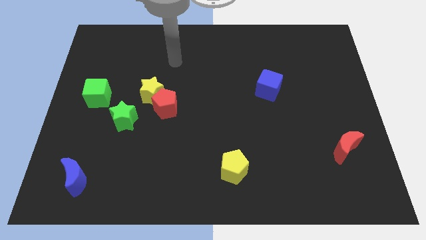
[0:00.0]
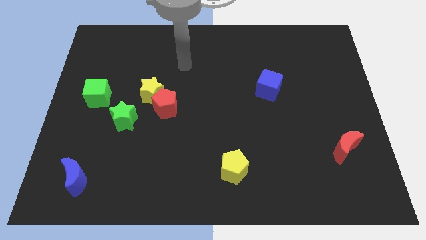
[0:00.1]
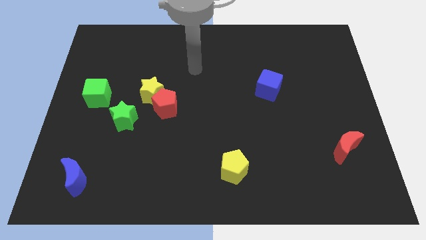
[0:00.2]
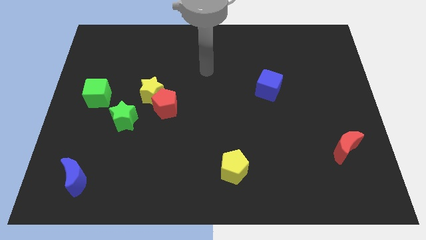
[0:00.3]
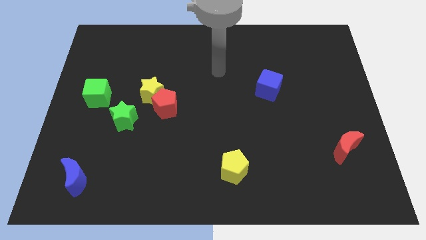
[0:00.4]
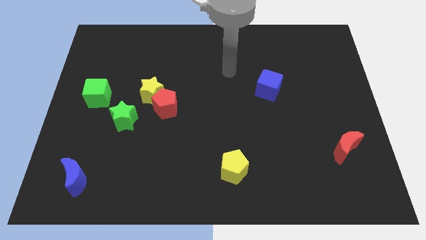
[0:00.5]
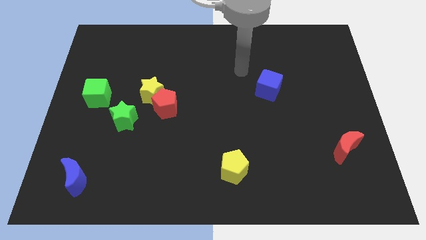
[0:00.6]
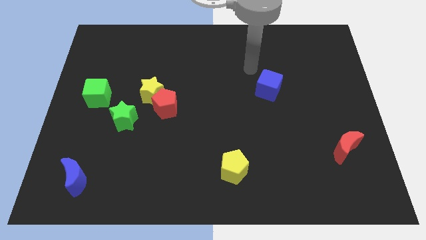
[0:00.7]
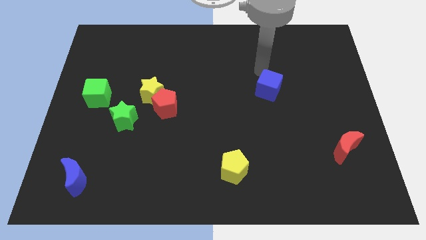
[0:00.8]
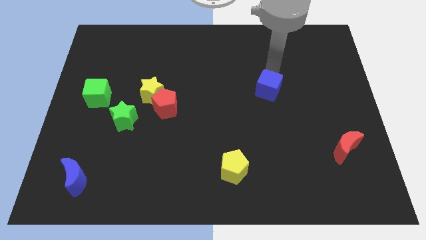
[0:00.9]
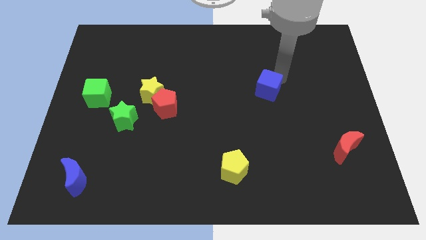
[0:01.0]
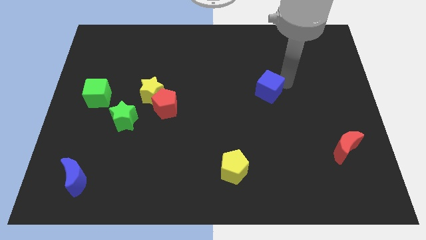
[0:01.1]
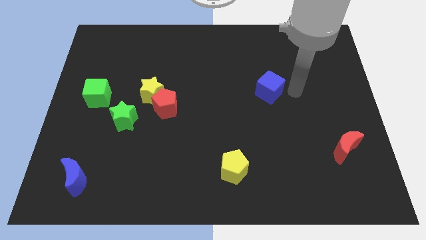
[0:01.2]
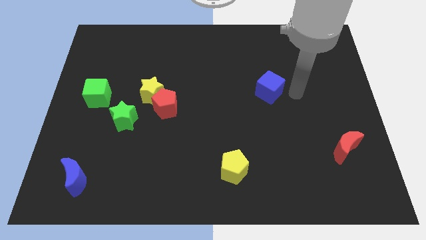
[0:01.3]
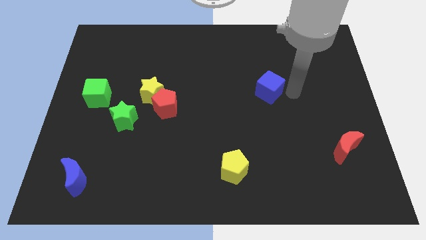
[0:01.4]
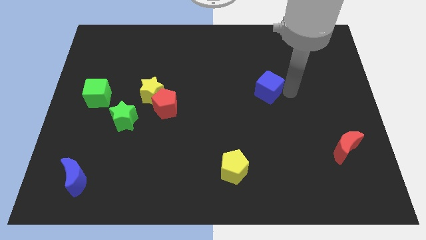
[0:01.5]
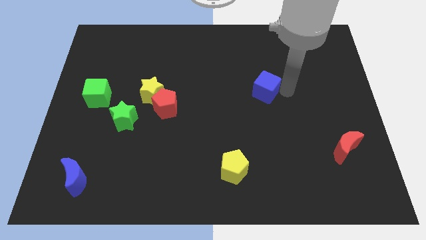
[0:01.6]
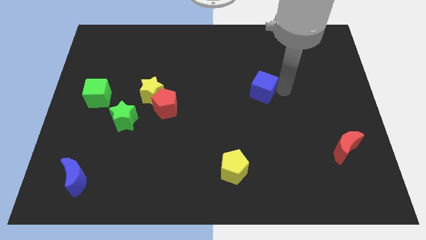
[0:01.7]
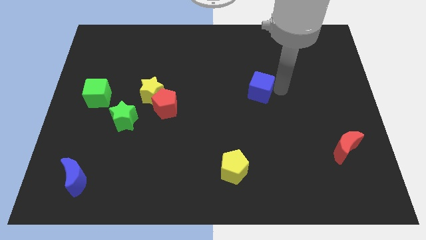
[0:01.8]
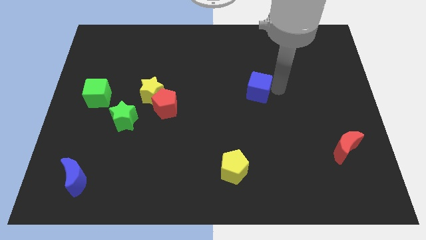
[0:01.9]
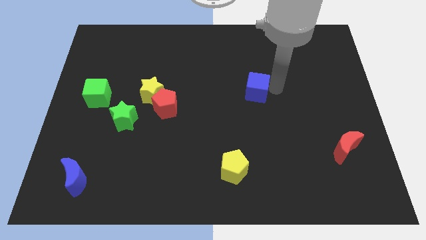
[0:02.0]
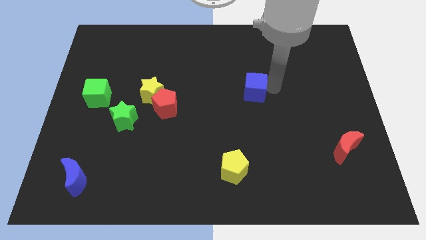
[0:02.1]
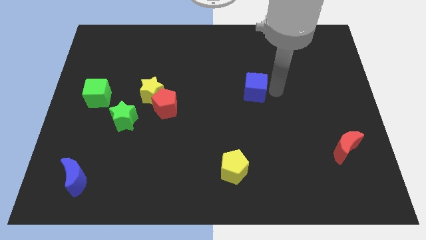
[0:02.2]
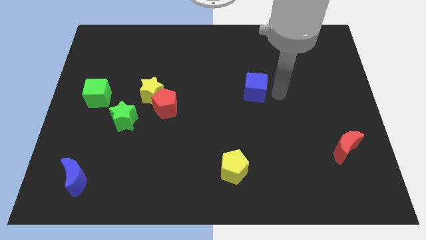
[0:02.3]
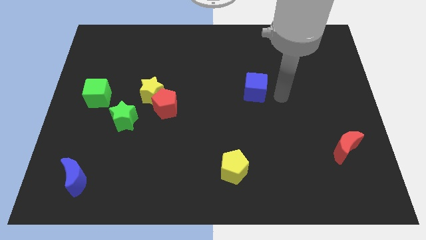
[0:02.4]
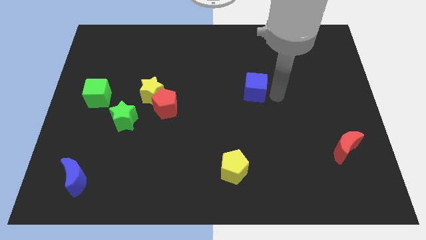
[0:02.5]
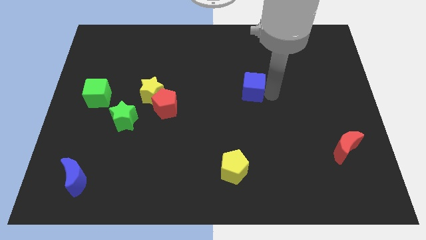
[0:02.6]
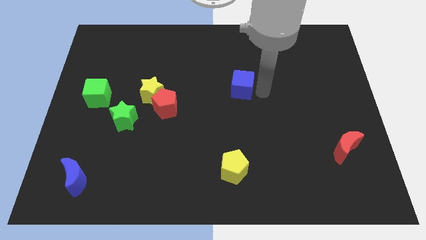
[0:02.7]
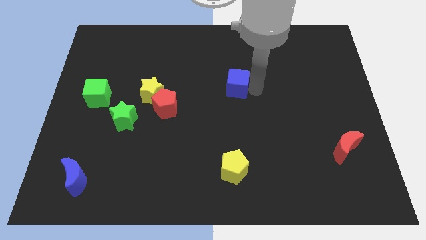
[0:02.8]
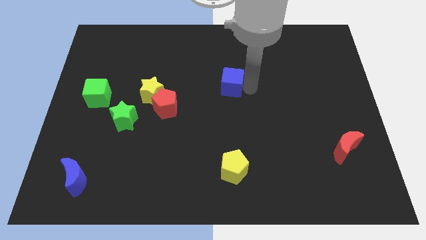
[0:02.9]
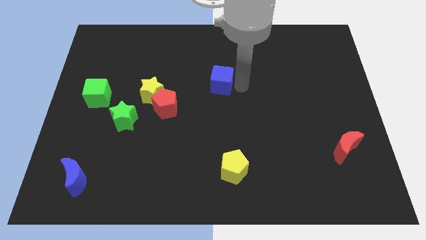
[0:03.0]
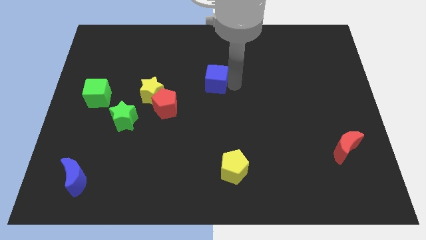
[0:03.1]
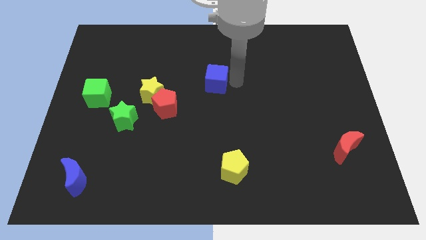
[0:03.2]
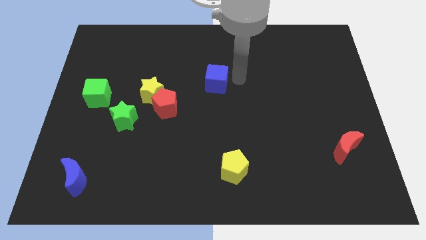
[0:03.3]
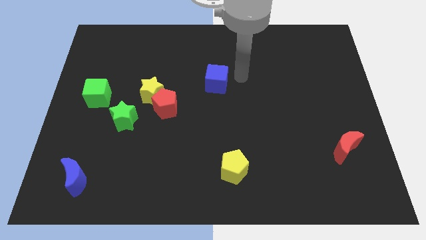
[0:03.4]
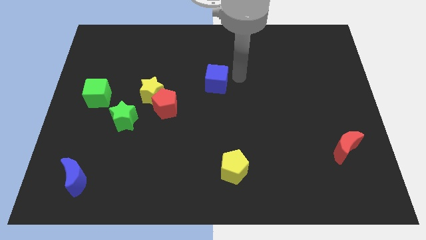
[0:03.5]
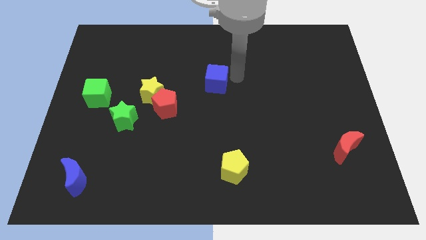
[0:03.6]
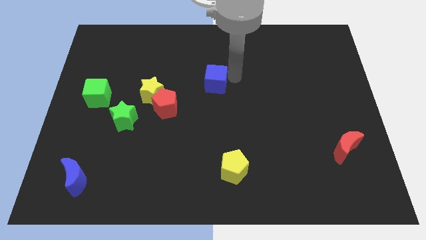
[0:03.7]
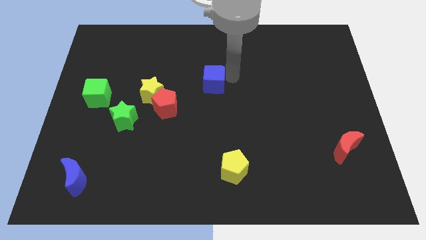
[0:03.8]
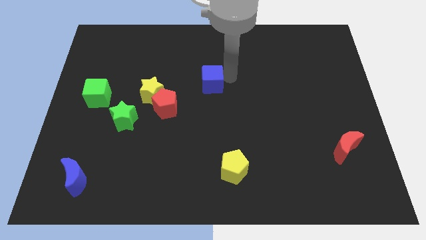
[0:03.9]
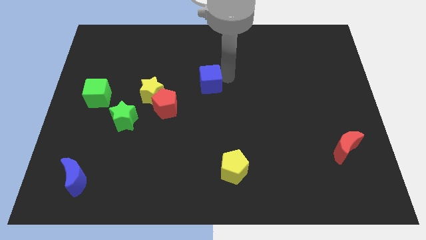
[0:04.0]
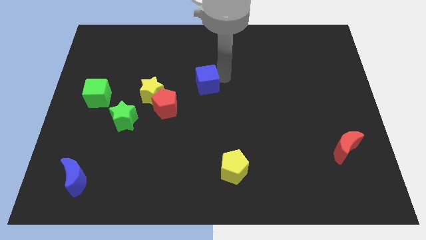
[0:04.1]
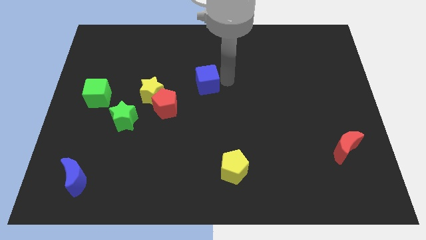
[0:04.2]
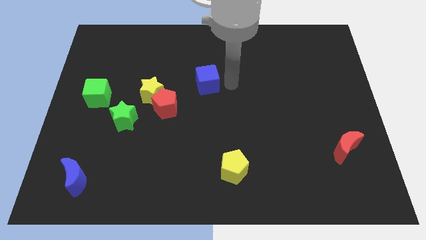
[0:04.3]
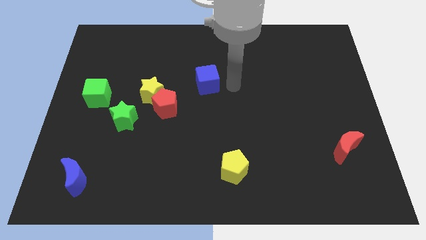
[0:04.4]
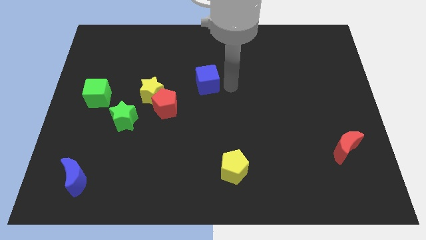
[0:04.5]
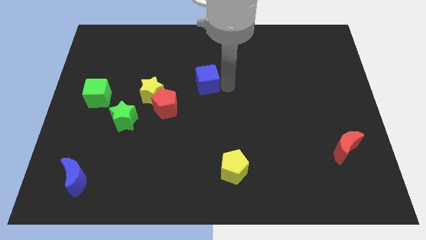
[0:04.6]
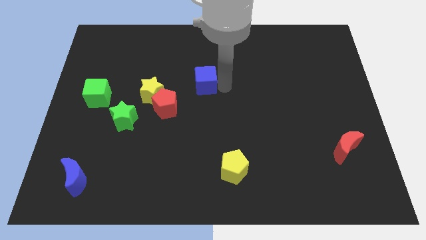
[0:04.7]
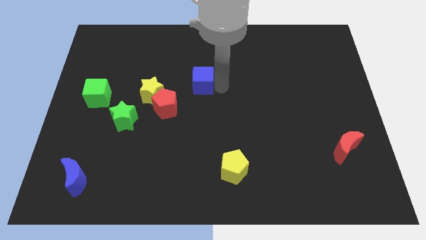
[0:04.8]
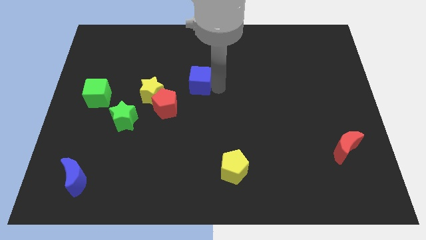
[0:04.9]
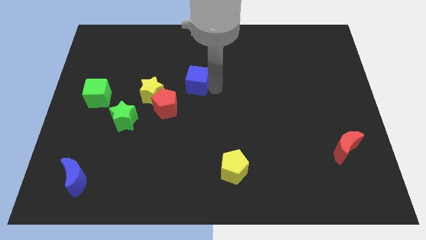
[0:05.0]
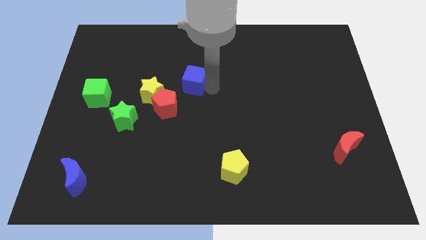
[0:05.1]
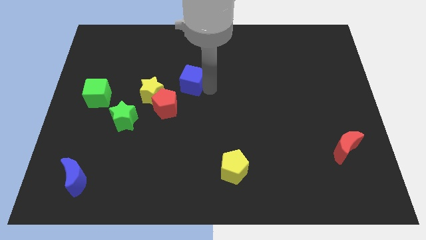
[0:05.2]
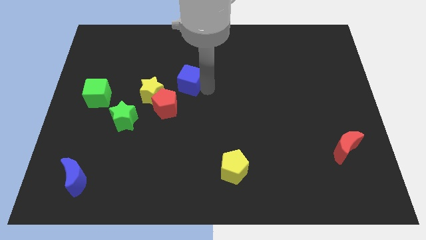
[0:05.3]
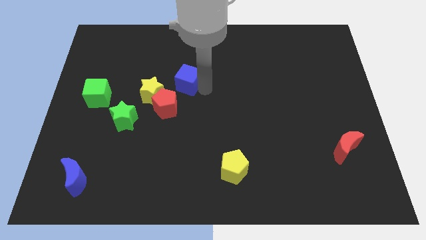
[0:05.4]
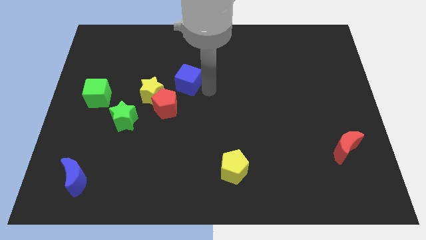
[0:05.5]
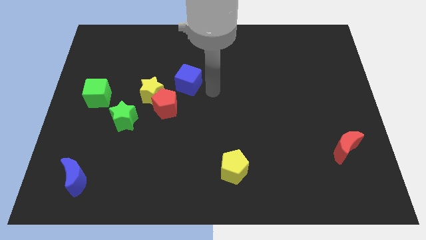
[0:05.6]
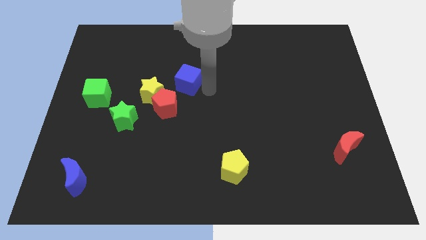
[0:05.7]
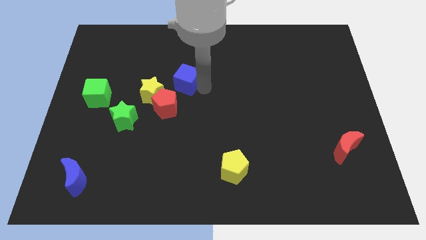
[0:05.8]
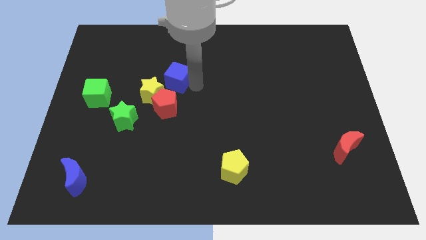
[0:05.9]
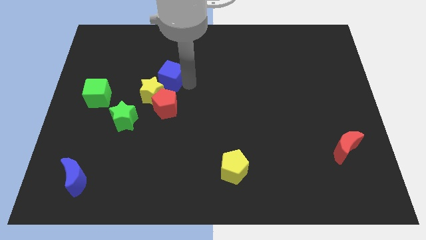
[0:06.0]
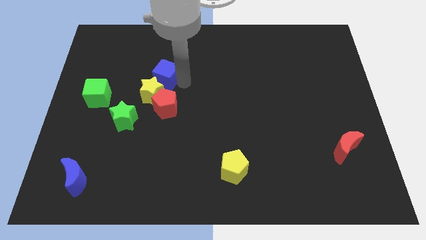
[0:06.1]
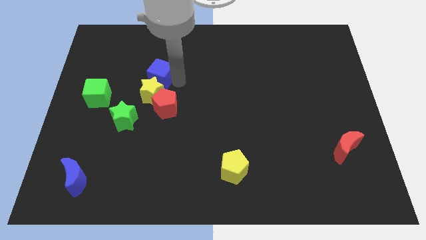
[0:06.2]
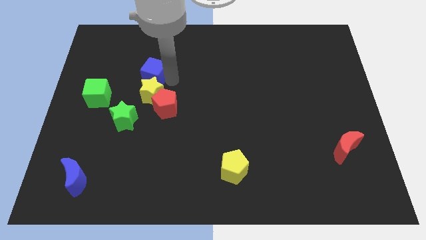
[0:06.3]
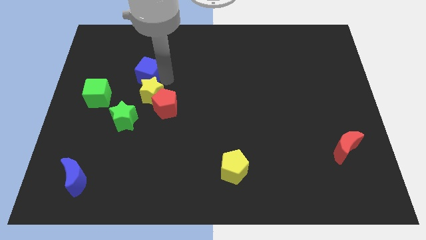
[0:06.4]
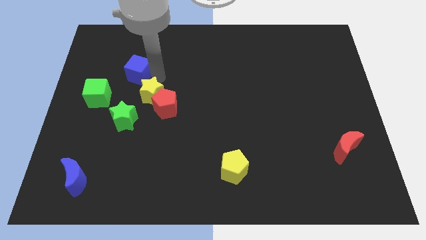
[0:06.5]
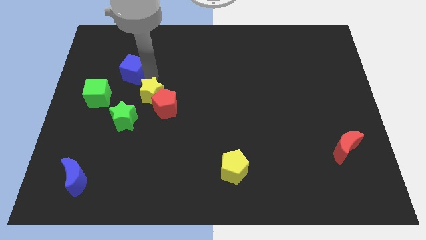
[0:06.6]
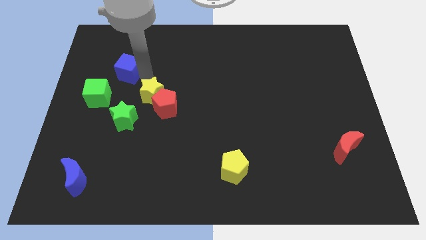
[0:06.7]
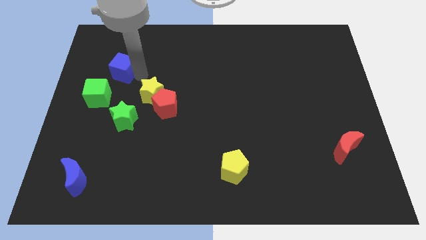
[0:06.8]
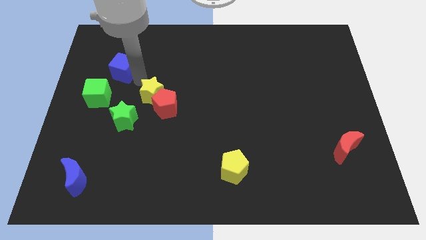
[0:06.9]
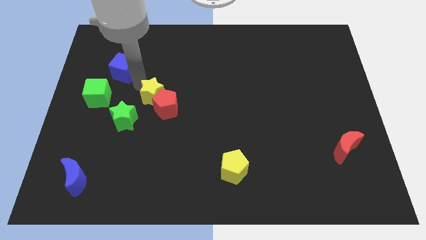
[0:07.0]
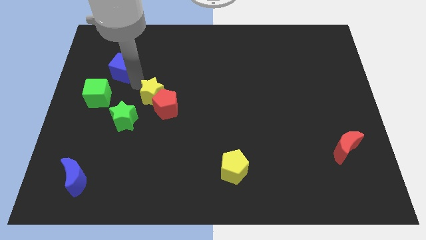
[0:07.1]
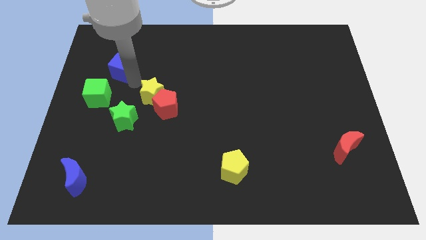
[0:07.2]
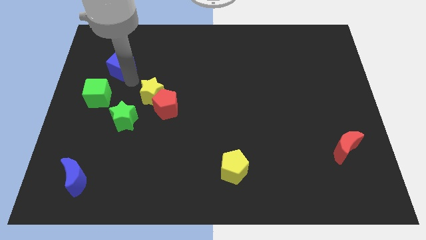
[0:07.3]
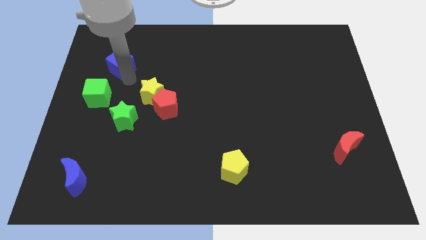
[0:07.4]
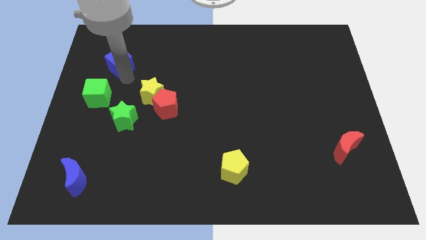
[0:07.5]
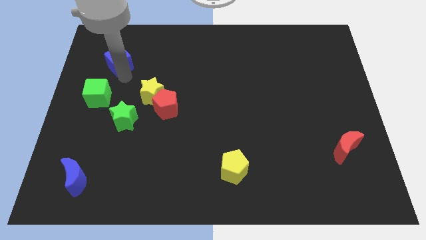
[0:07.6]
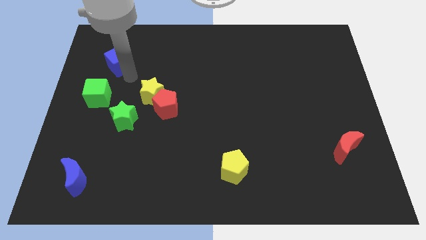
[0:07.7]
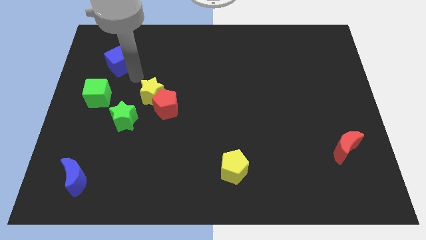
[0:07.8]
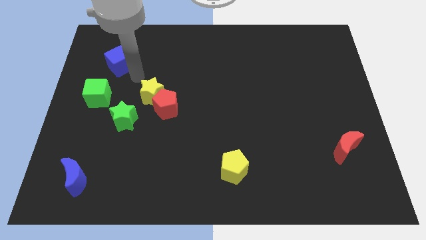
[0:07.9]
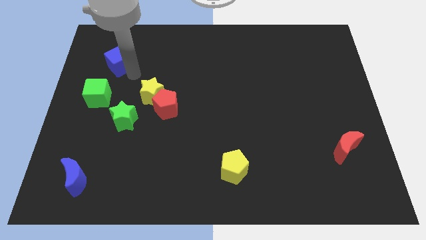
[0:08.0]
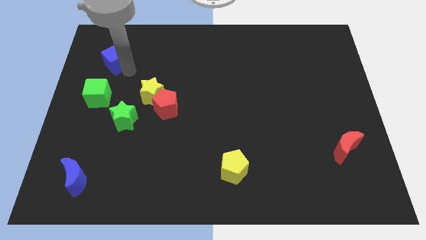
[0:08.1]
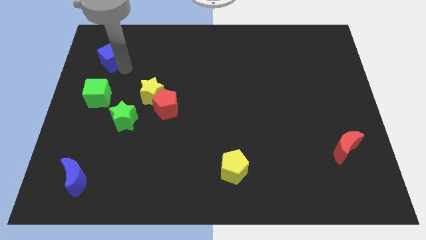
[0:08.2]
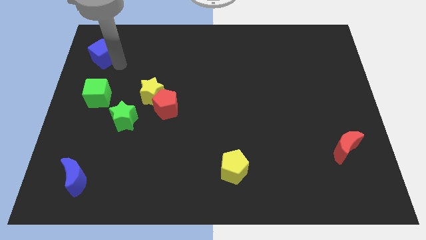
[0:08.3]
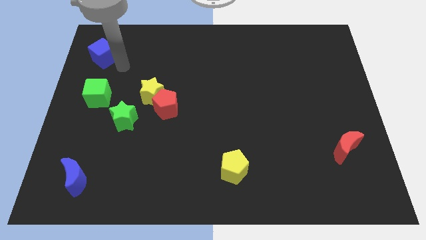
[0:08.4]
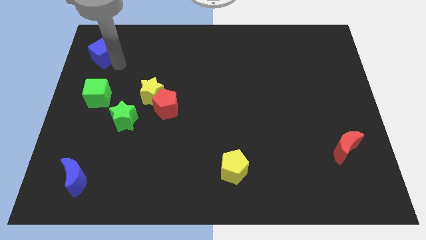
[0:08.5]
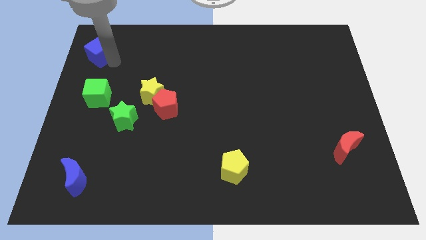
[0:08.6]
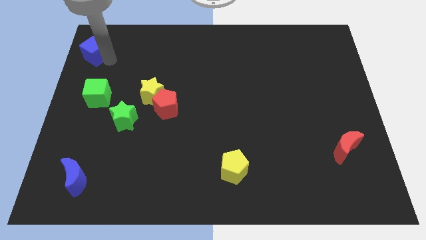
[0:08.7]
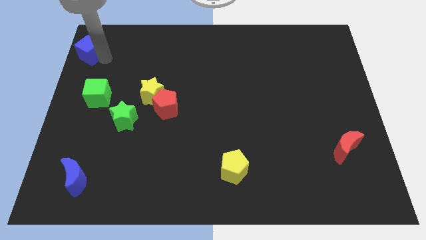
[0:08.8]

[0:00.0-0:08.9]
slide the blue cube to the top left of the board
